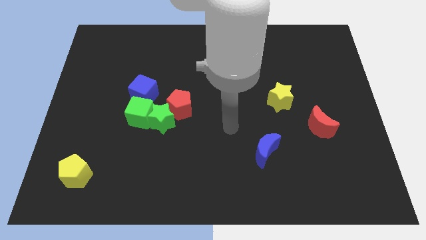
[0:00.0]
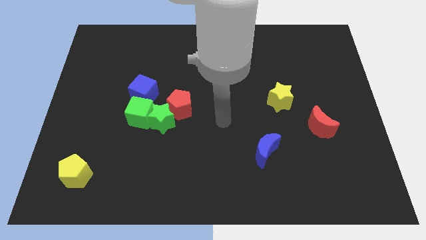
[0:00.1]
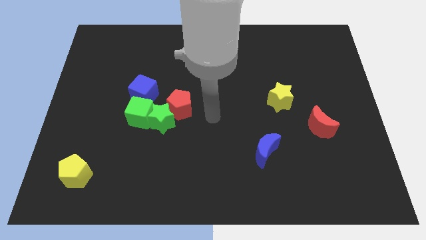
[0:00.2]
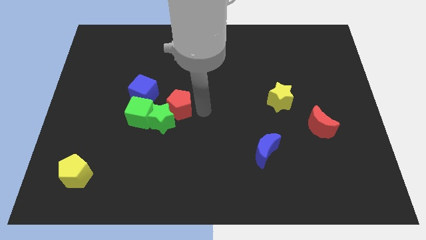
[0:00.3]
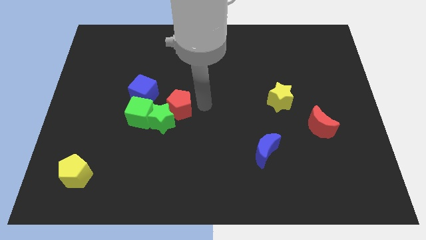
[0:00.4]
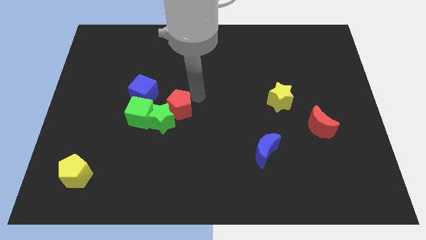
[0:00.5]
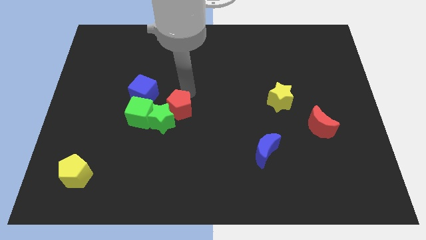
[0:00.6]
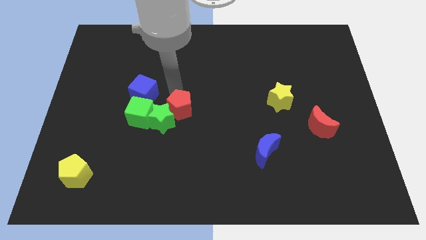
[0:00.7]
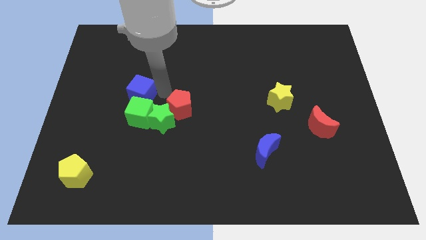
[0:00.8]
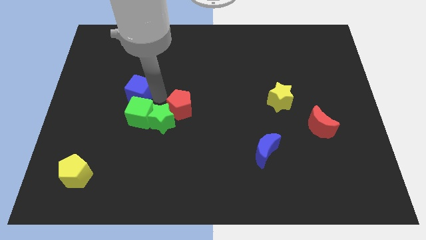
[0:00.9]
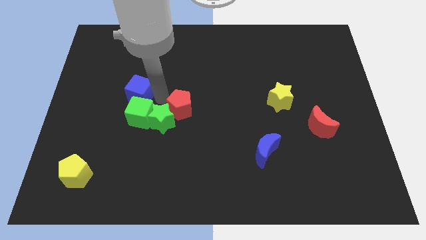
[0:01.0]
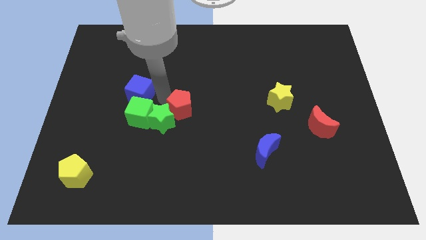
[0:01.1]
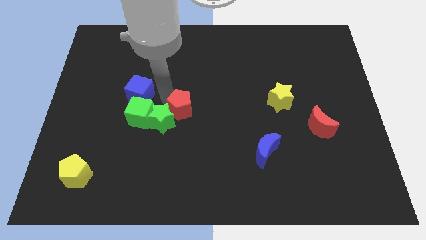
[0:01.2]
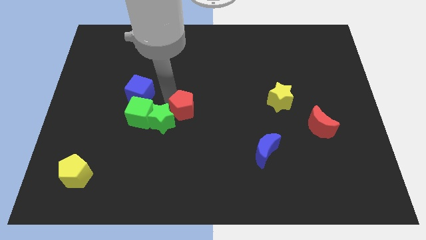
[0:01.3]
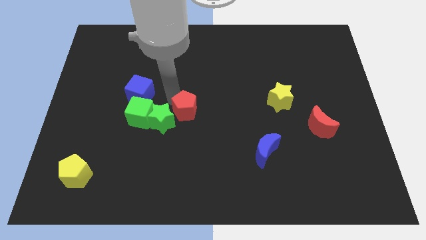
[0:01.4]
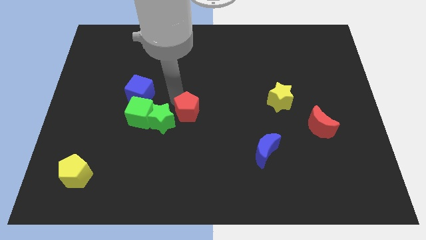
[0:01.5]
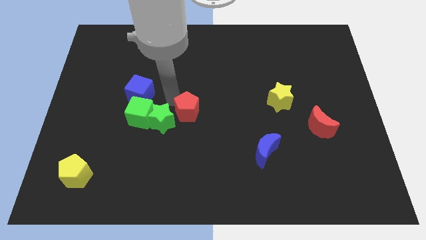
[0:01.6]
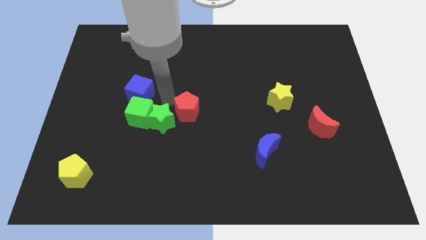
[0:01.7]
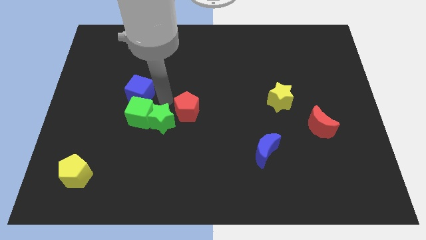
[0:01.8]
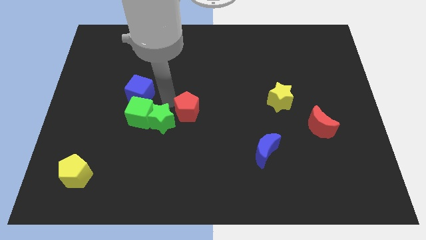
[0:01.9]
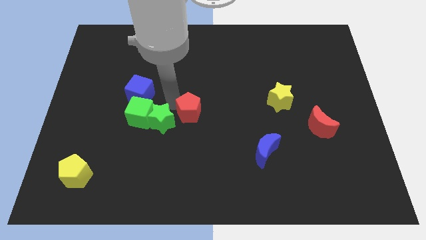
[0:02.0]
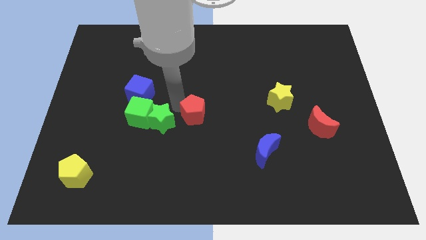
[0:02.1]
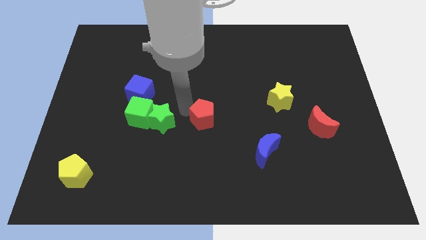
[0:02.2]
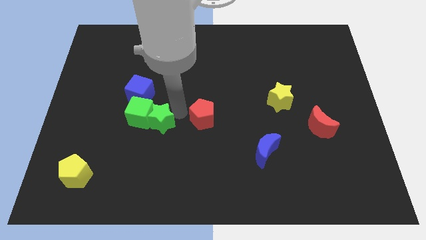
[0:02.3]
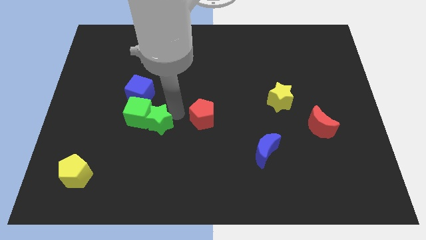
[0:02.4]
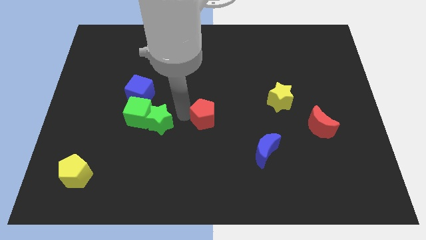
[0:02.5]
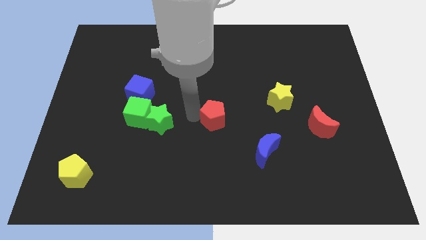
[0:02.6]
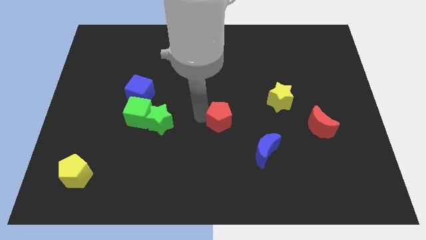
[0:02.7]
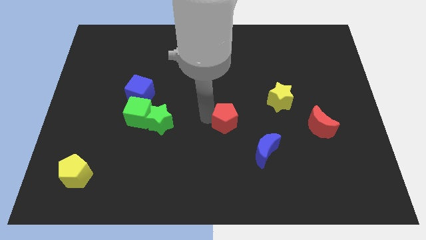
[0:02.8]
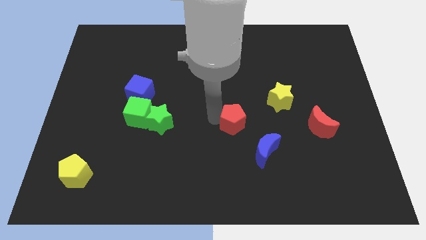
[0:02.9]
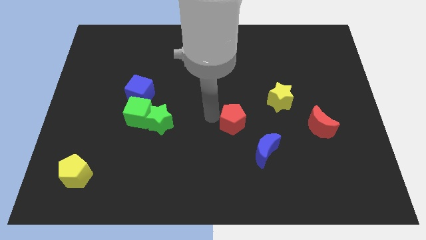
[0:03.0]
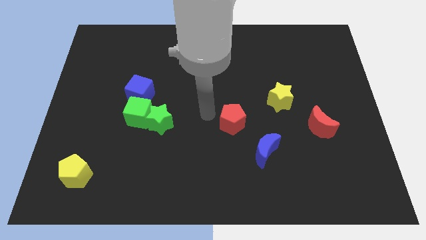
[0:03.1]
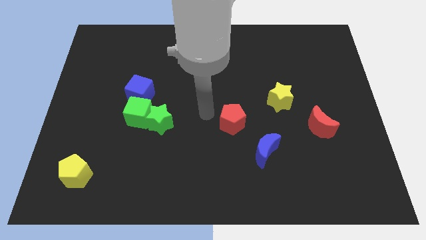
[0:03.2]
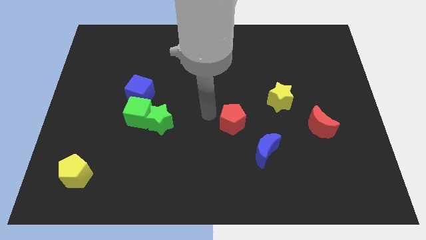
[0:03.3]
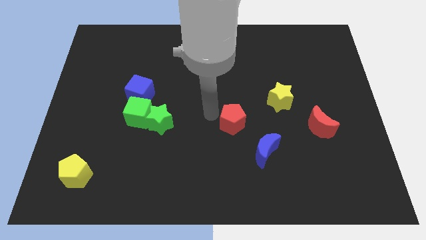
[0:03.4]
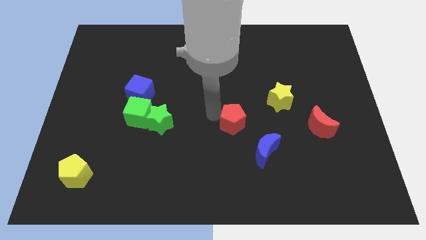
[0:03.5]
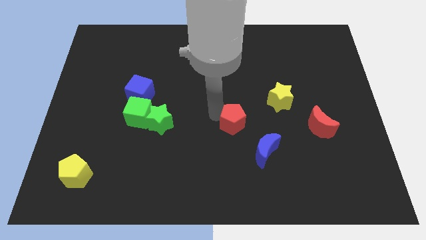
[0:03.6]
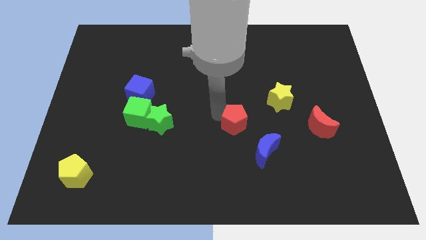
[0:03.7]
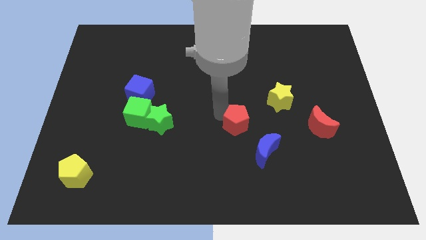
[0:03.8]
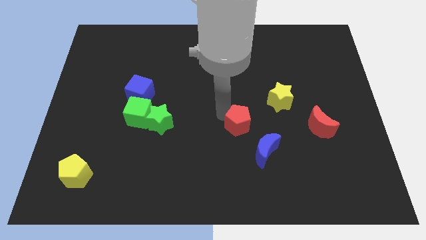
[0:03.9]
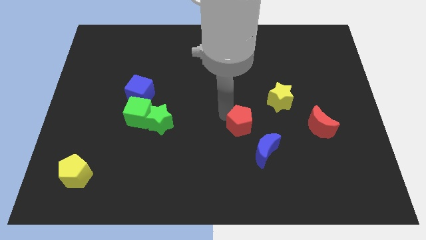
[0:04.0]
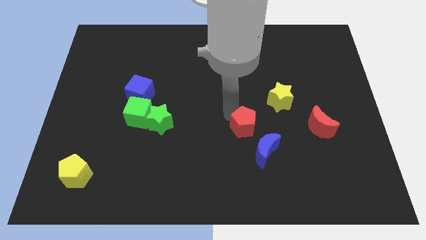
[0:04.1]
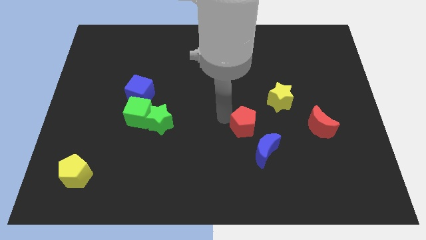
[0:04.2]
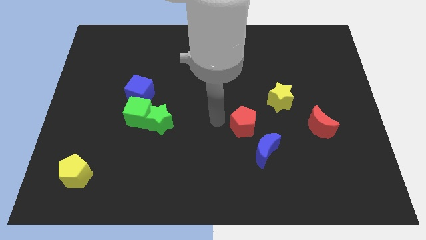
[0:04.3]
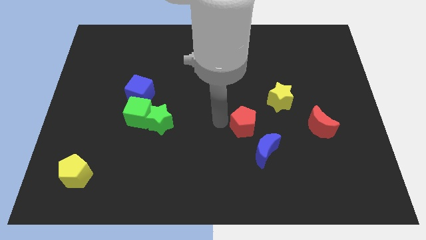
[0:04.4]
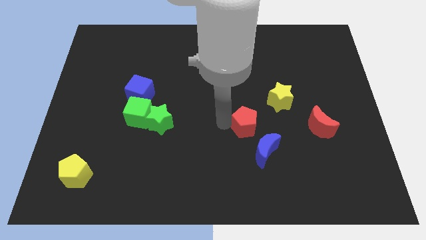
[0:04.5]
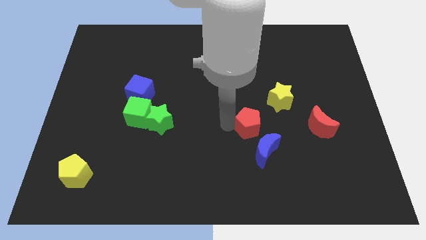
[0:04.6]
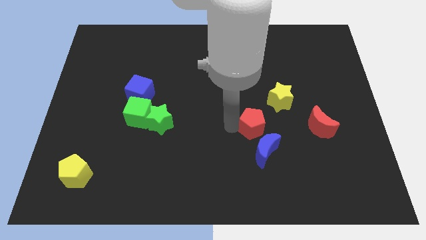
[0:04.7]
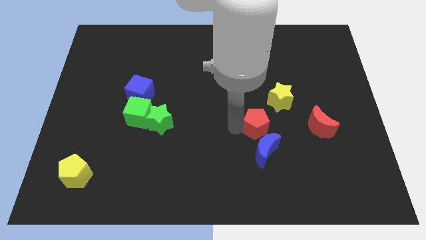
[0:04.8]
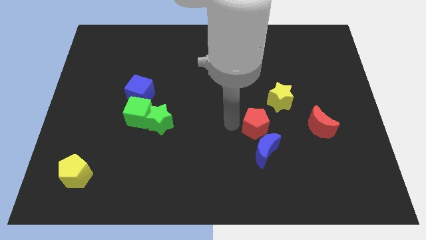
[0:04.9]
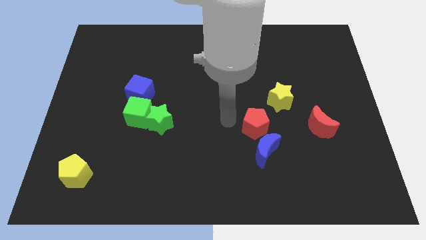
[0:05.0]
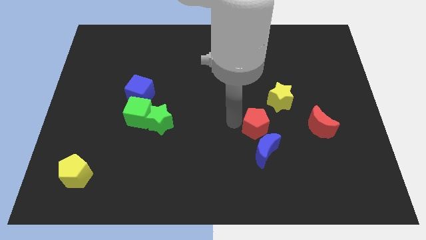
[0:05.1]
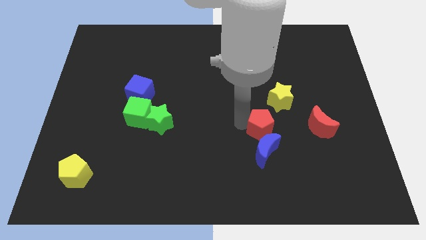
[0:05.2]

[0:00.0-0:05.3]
put the red pentagon diagonally up and to the right of the blue moon

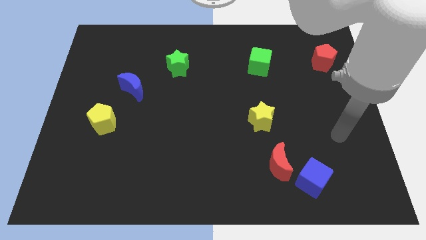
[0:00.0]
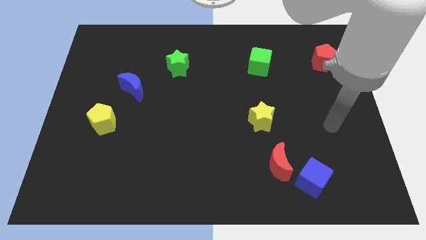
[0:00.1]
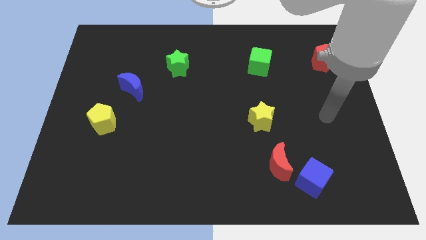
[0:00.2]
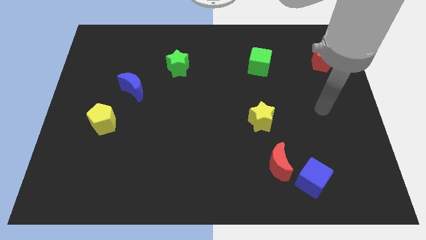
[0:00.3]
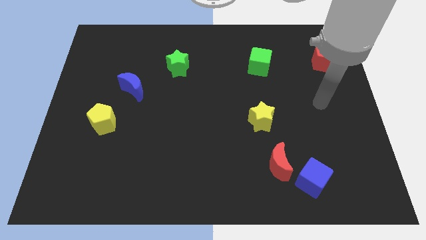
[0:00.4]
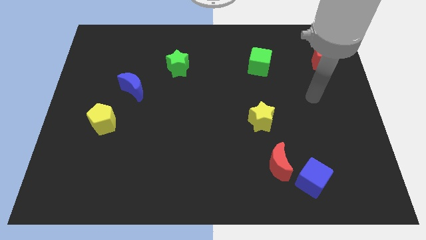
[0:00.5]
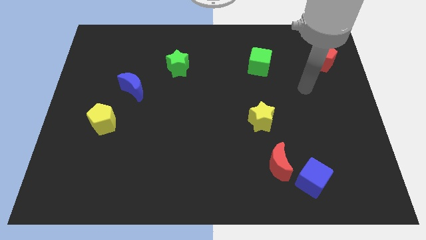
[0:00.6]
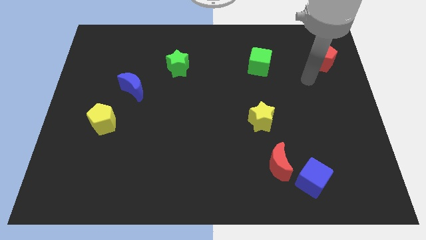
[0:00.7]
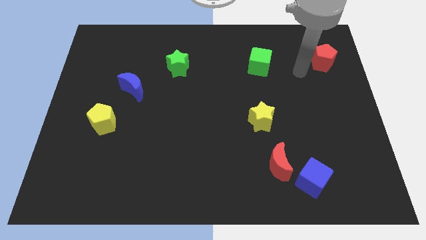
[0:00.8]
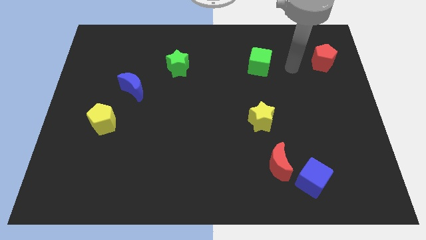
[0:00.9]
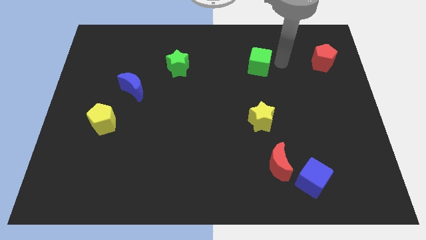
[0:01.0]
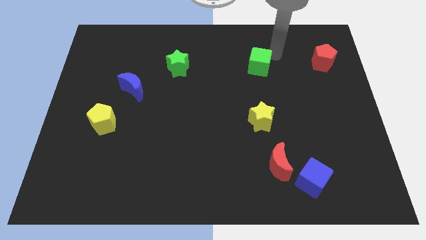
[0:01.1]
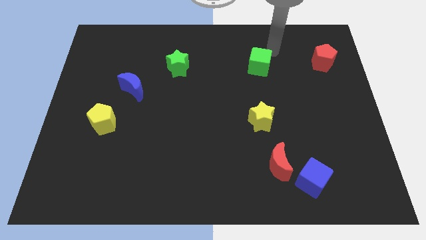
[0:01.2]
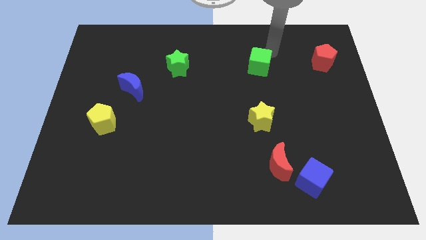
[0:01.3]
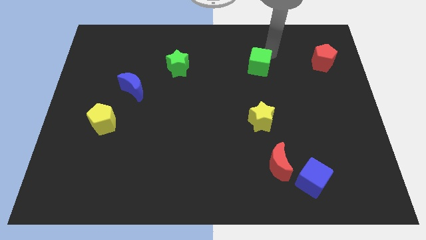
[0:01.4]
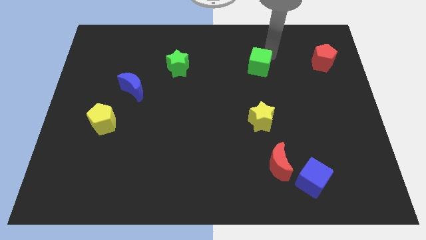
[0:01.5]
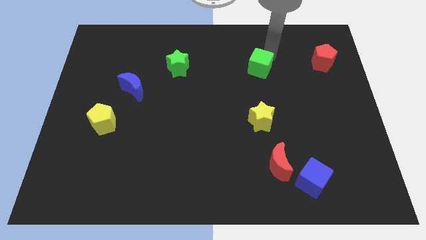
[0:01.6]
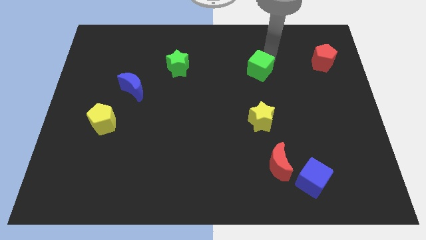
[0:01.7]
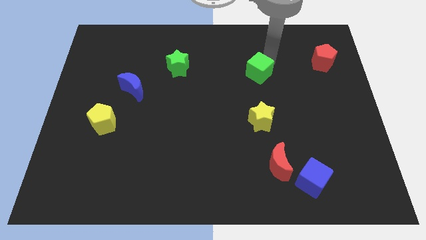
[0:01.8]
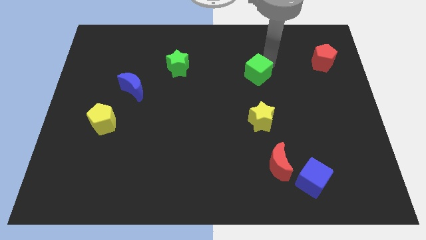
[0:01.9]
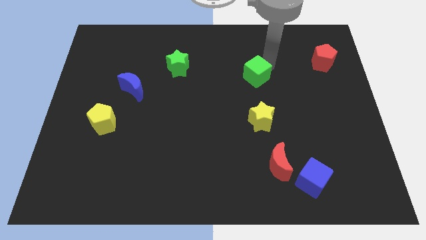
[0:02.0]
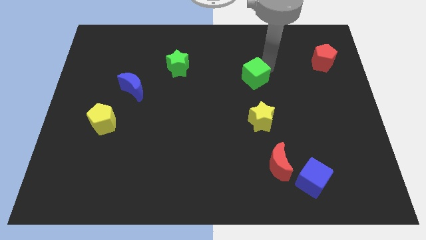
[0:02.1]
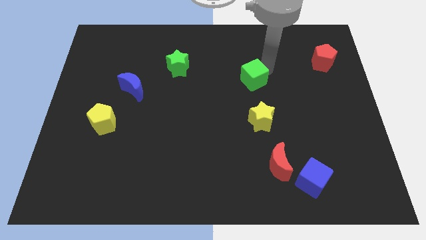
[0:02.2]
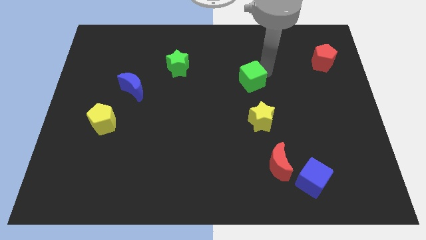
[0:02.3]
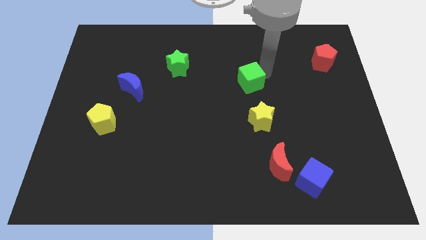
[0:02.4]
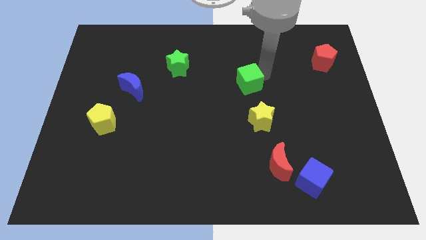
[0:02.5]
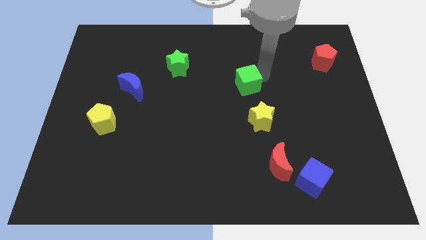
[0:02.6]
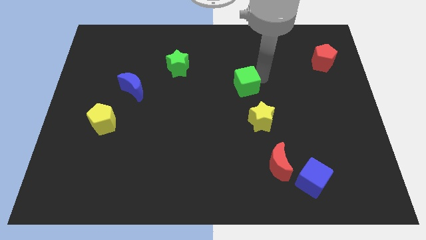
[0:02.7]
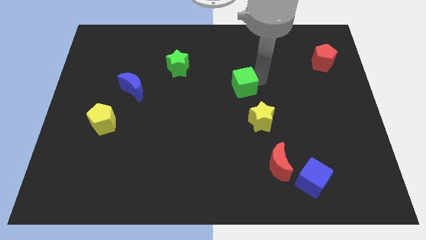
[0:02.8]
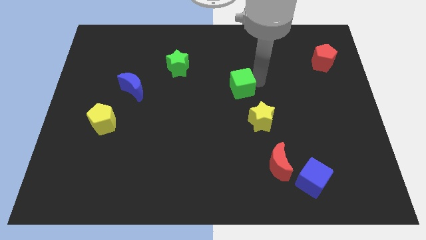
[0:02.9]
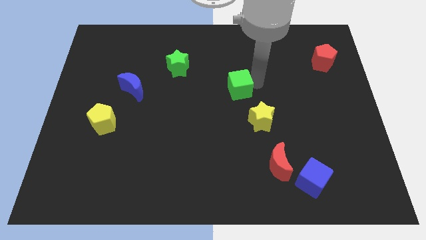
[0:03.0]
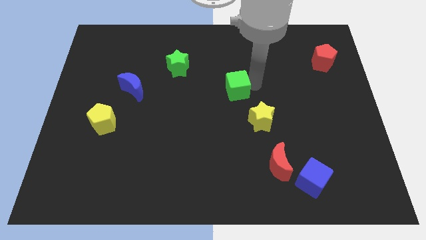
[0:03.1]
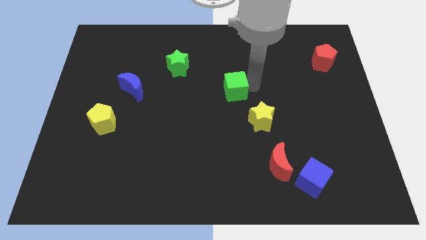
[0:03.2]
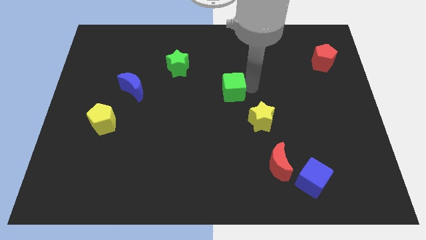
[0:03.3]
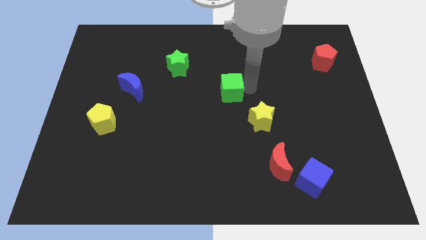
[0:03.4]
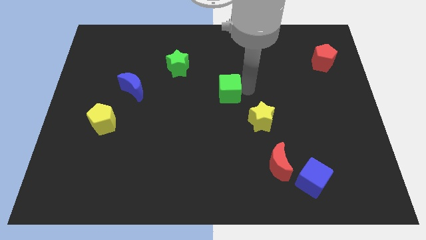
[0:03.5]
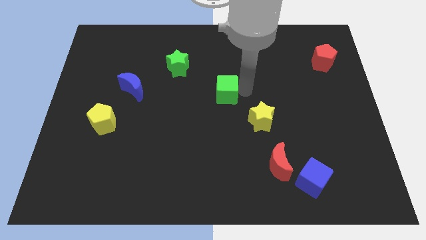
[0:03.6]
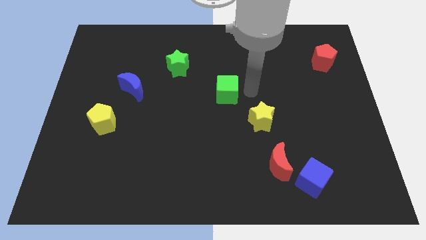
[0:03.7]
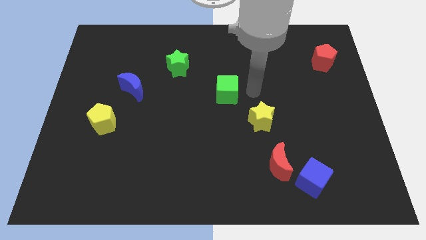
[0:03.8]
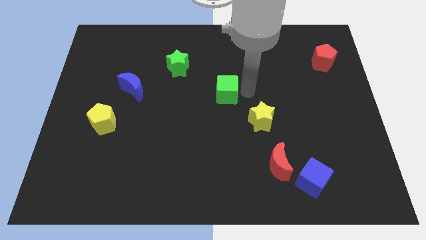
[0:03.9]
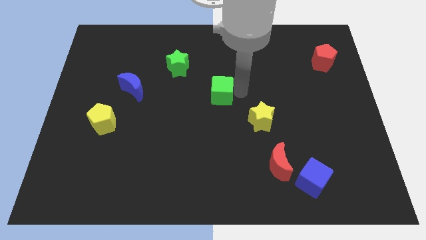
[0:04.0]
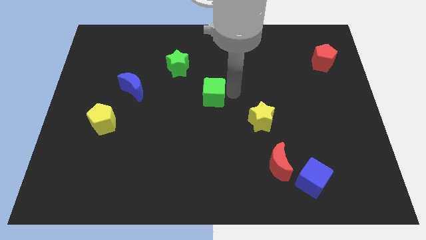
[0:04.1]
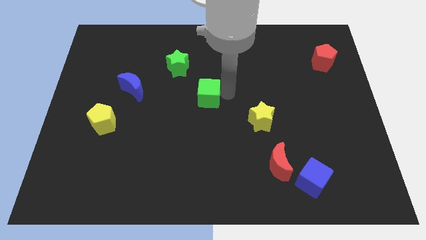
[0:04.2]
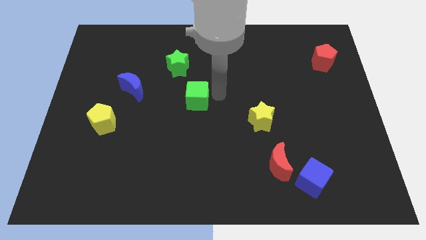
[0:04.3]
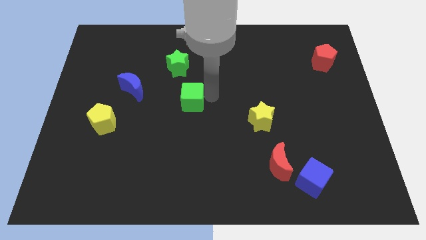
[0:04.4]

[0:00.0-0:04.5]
move the green cube to the bottom side of the green star
